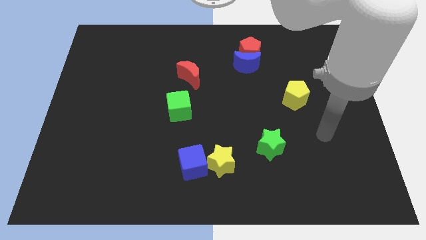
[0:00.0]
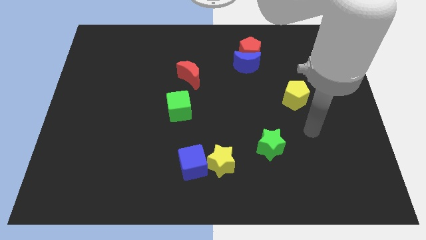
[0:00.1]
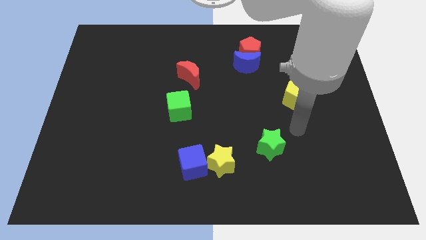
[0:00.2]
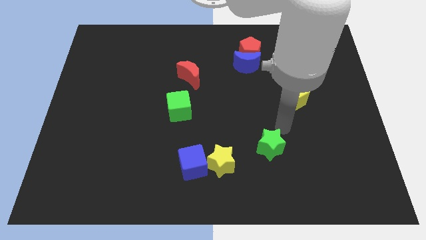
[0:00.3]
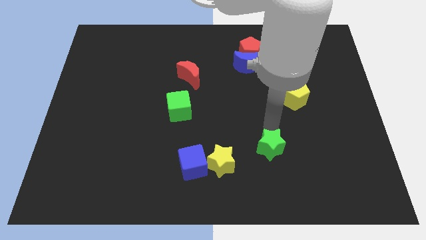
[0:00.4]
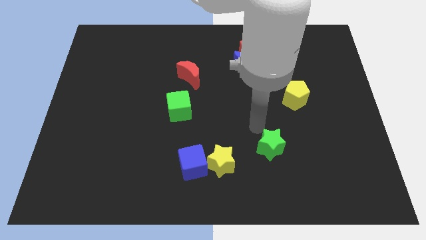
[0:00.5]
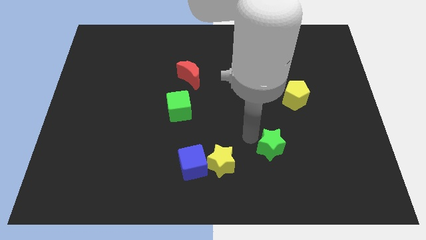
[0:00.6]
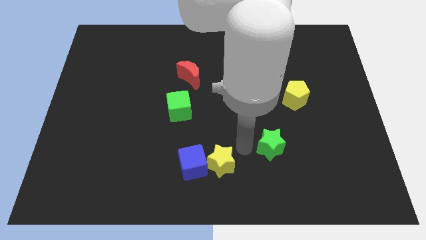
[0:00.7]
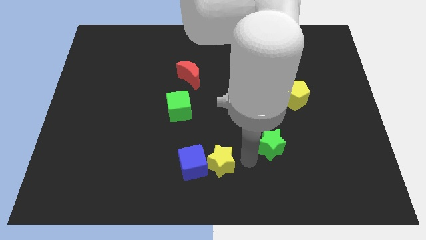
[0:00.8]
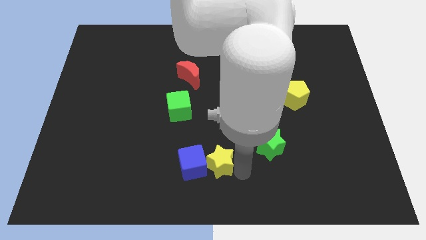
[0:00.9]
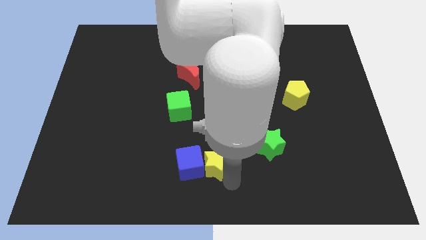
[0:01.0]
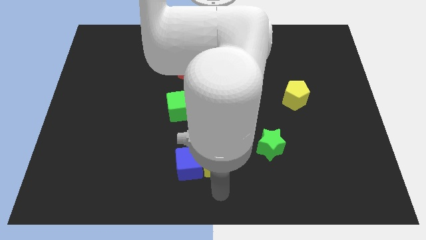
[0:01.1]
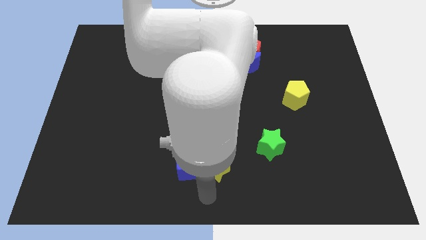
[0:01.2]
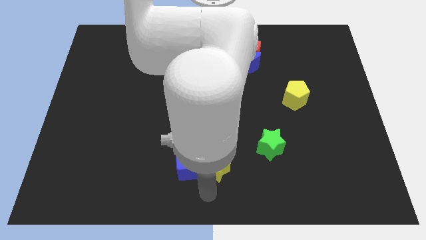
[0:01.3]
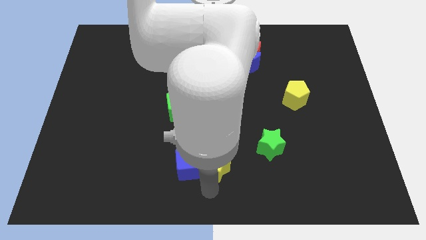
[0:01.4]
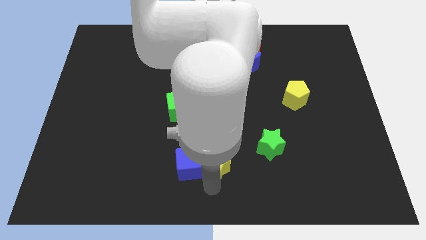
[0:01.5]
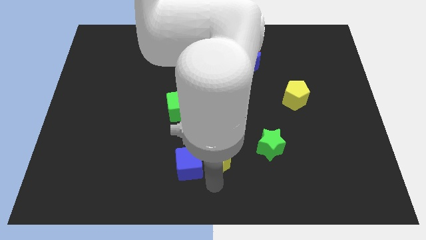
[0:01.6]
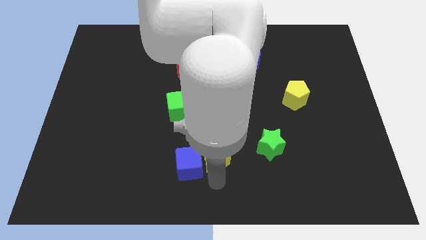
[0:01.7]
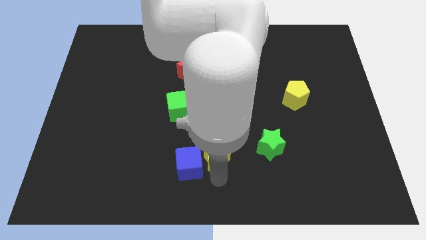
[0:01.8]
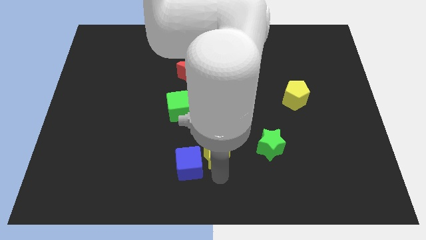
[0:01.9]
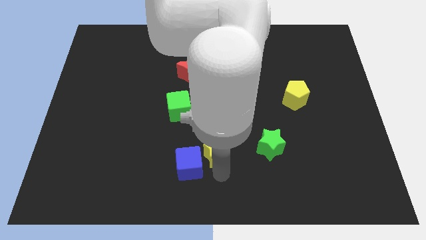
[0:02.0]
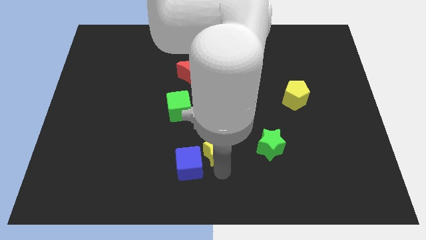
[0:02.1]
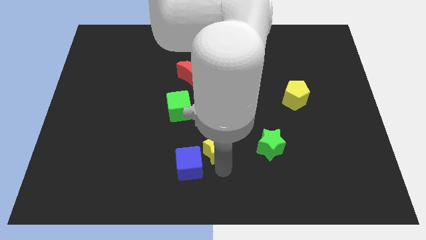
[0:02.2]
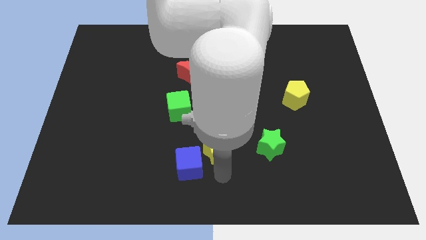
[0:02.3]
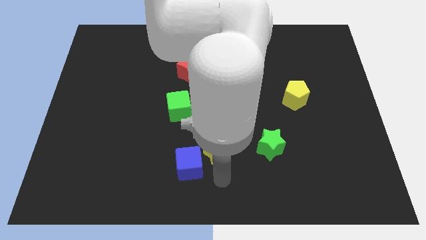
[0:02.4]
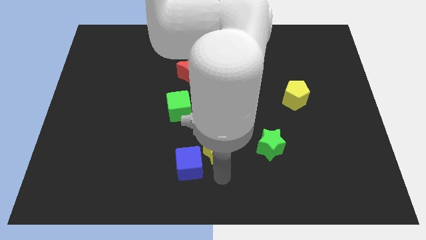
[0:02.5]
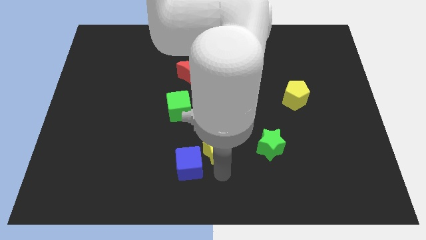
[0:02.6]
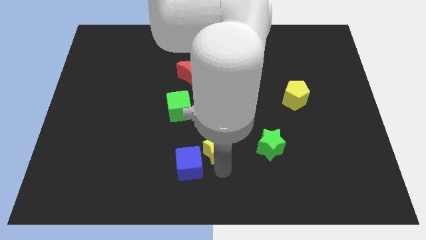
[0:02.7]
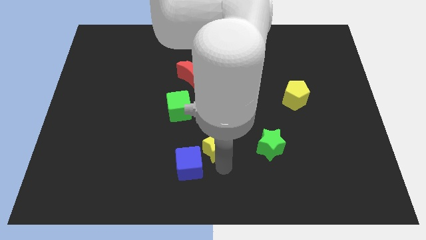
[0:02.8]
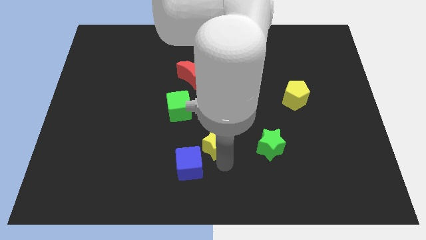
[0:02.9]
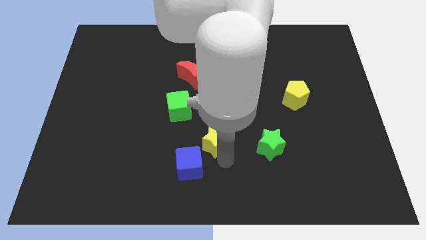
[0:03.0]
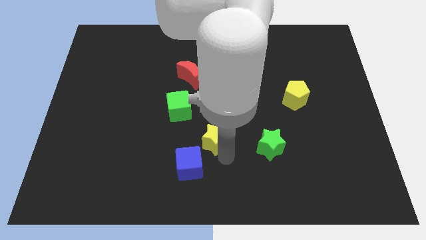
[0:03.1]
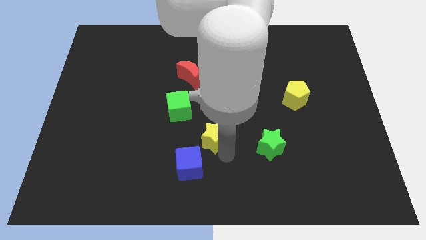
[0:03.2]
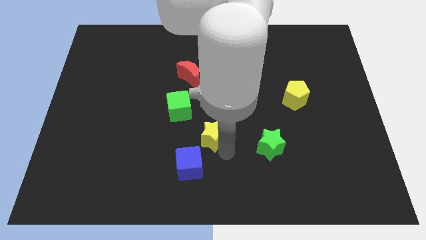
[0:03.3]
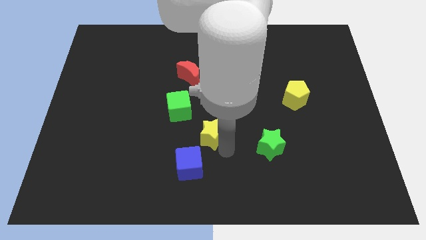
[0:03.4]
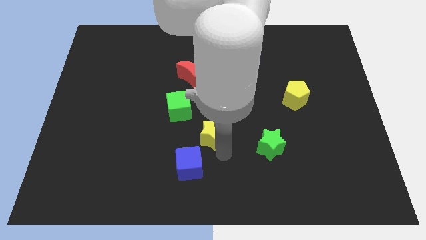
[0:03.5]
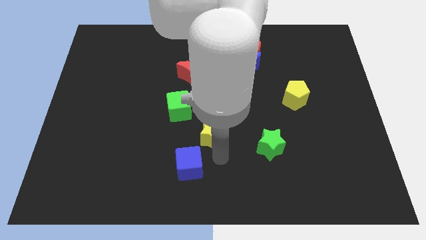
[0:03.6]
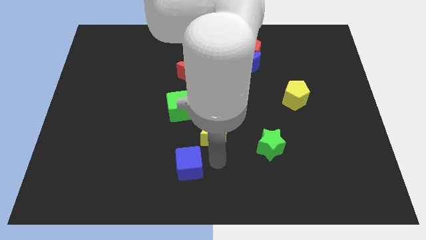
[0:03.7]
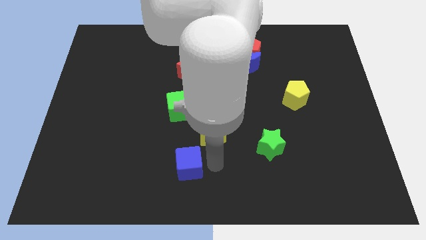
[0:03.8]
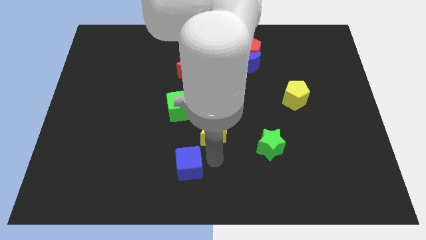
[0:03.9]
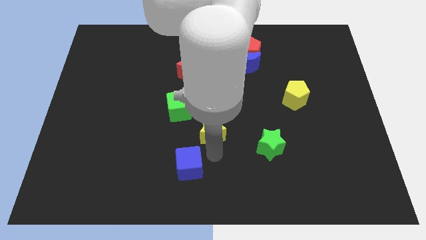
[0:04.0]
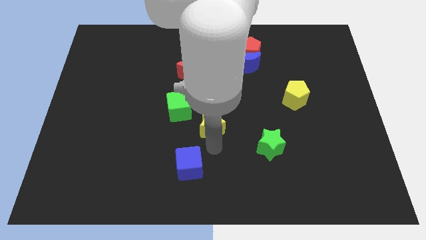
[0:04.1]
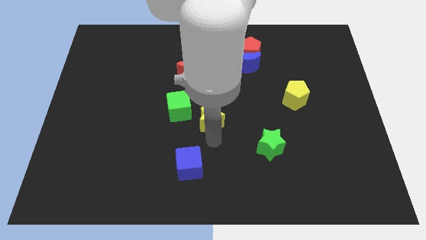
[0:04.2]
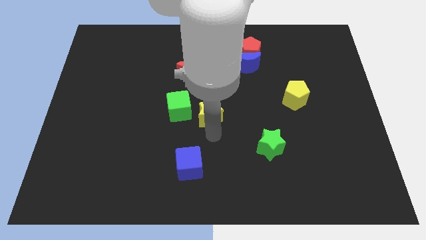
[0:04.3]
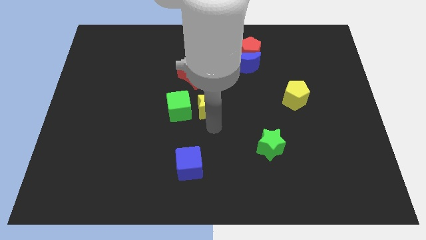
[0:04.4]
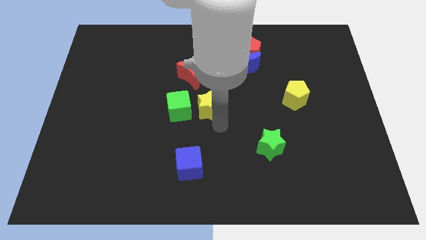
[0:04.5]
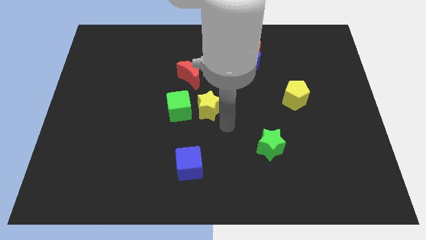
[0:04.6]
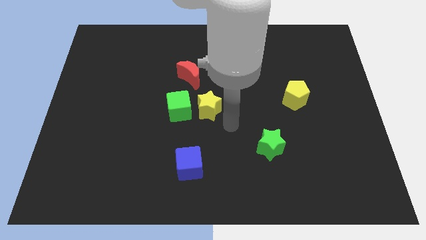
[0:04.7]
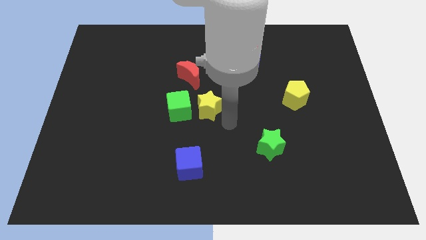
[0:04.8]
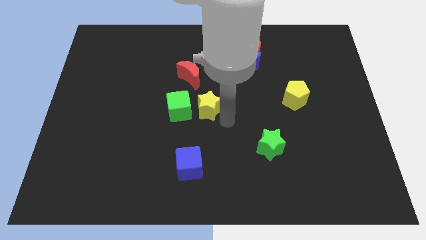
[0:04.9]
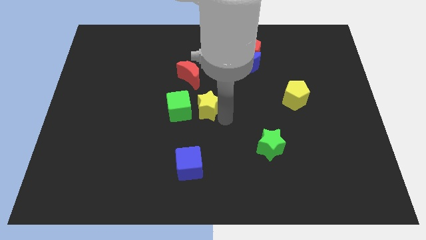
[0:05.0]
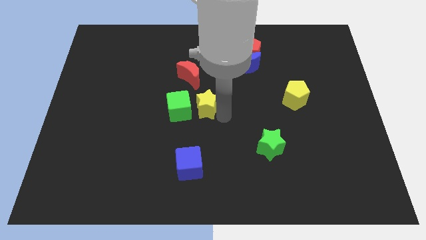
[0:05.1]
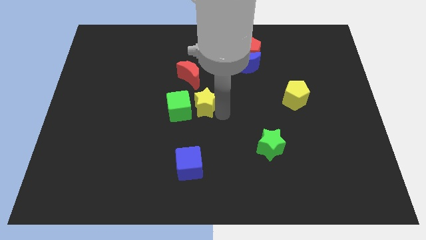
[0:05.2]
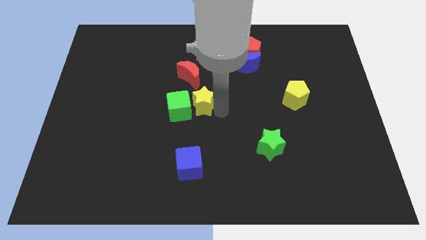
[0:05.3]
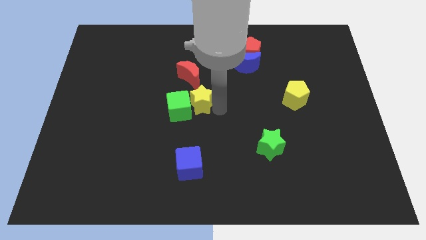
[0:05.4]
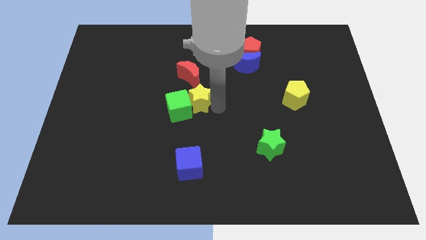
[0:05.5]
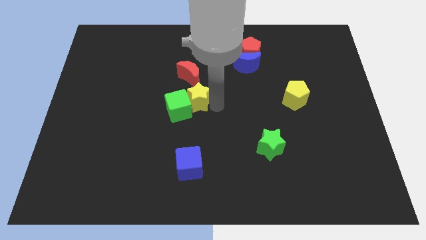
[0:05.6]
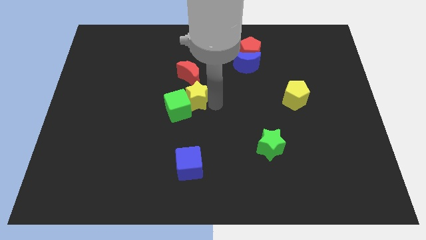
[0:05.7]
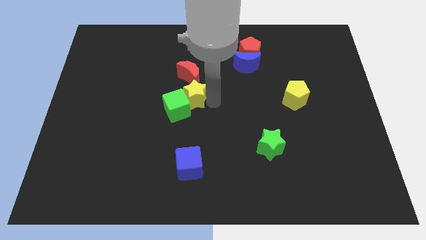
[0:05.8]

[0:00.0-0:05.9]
move the yellow star to the top of the green cube

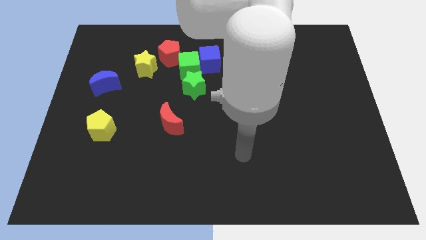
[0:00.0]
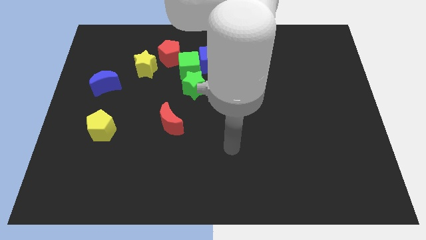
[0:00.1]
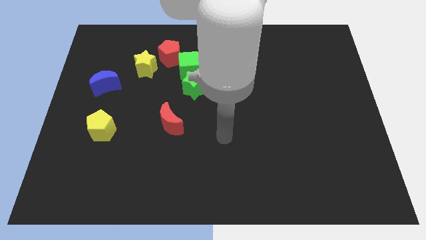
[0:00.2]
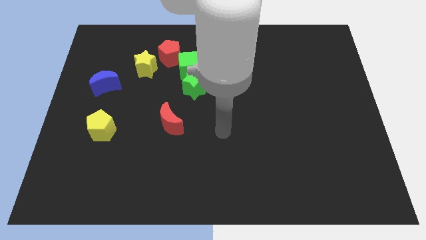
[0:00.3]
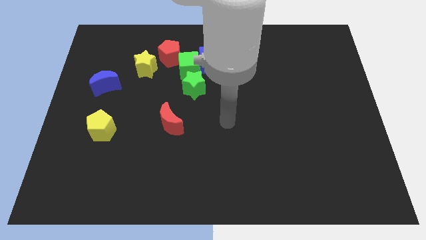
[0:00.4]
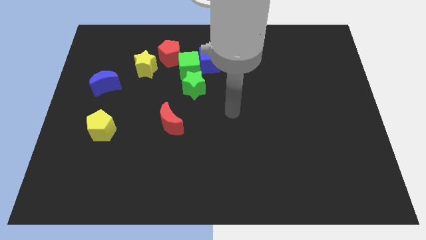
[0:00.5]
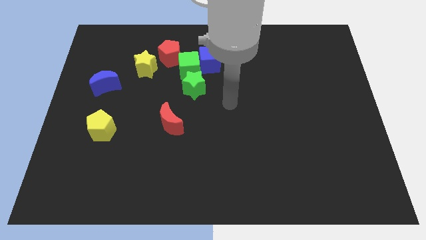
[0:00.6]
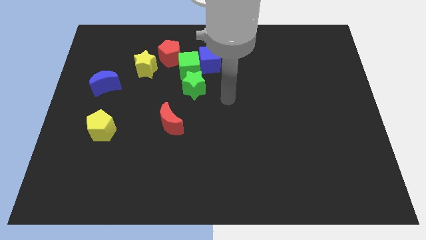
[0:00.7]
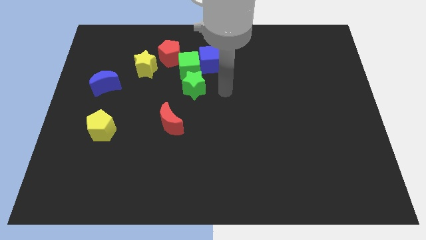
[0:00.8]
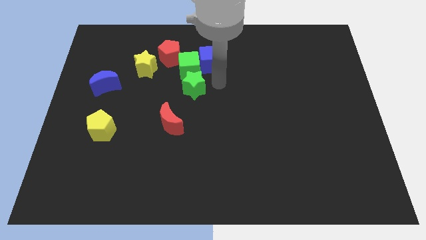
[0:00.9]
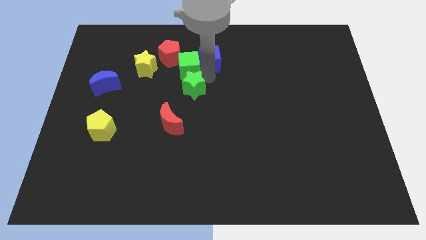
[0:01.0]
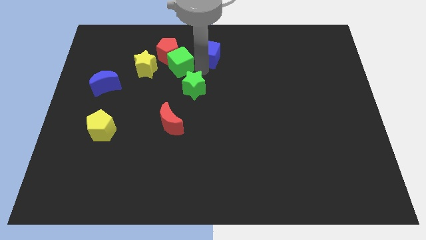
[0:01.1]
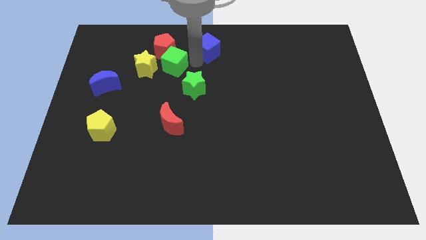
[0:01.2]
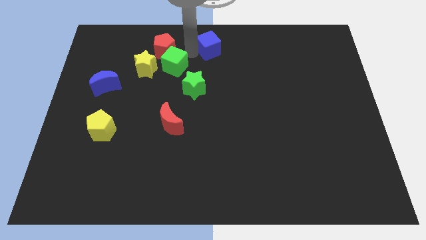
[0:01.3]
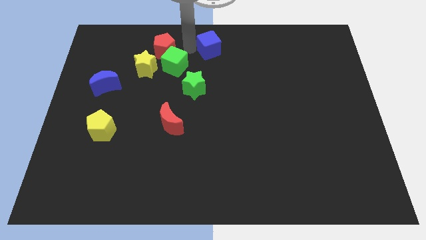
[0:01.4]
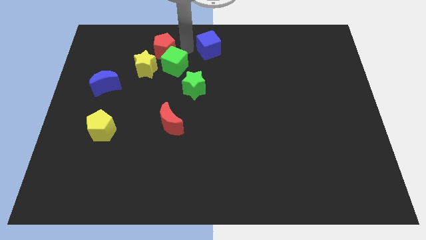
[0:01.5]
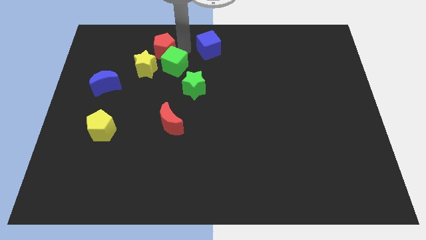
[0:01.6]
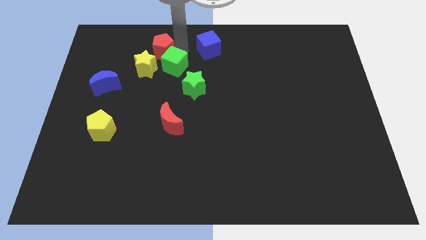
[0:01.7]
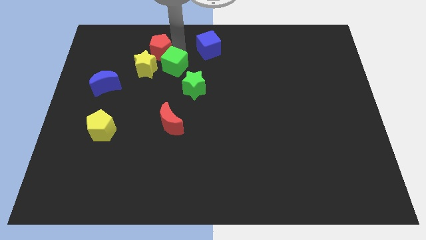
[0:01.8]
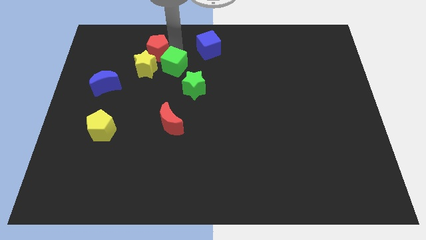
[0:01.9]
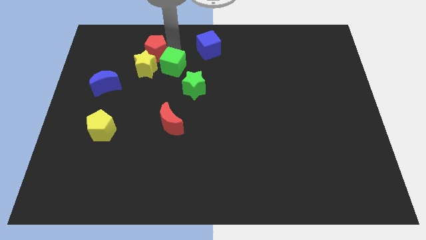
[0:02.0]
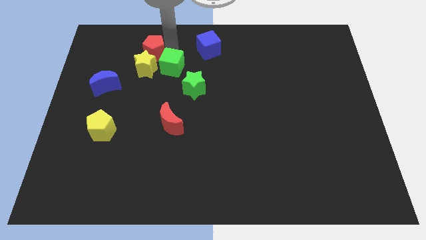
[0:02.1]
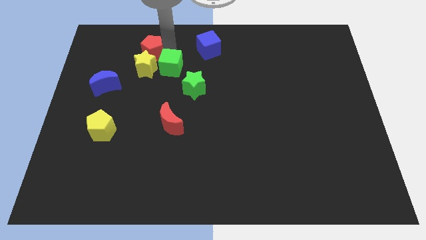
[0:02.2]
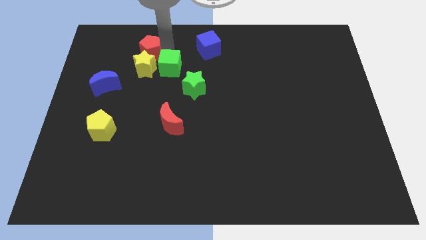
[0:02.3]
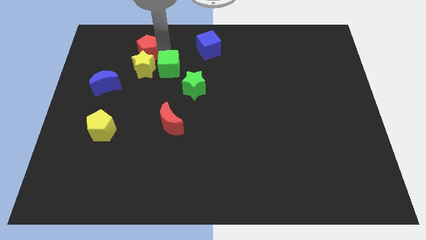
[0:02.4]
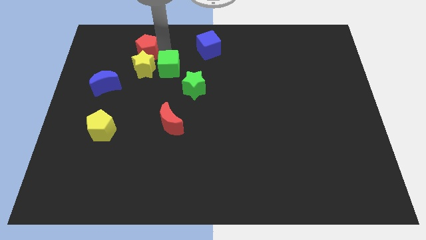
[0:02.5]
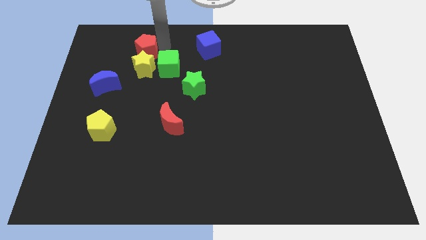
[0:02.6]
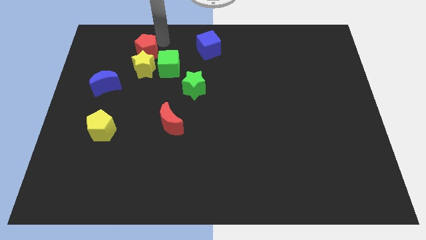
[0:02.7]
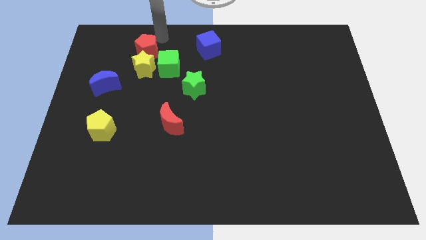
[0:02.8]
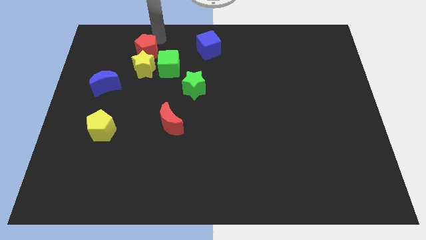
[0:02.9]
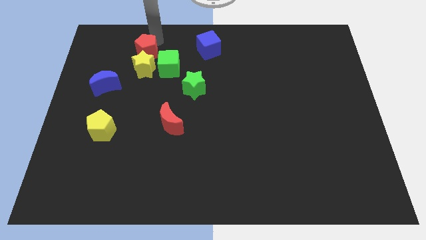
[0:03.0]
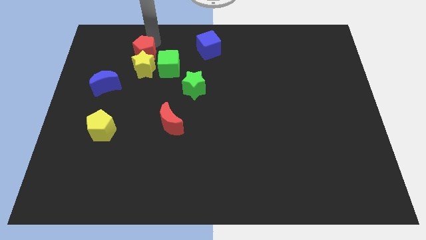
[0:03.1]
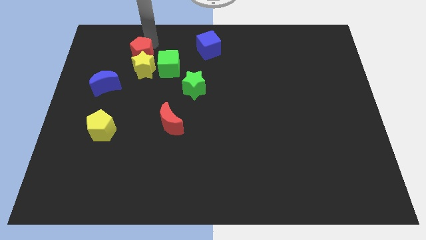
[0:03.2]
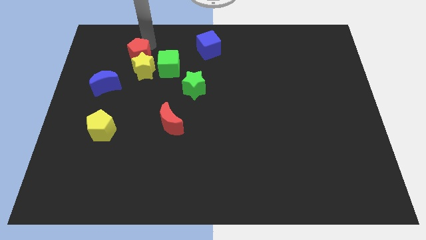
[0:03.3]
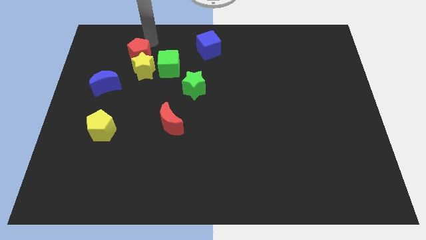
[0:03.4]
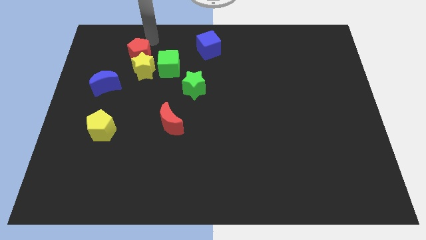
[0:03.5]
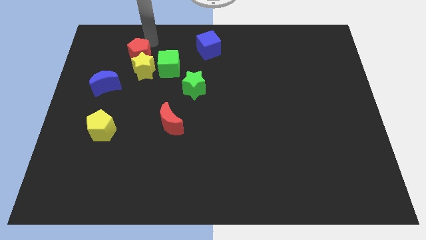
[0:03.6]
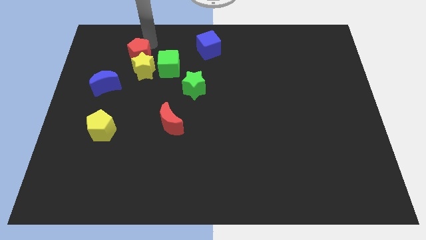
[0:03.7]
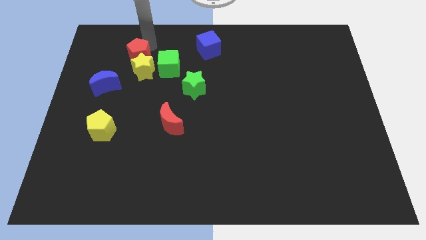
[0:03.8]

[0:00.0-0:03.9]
put the red pentagon to the top right of the blue moon
